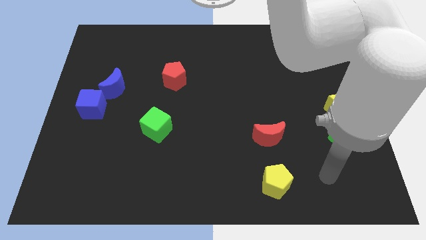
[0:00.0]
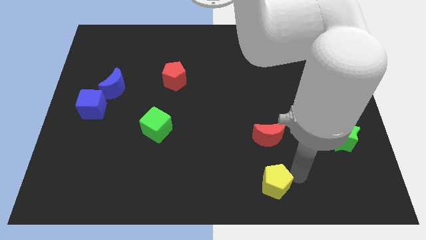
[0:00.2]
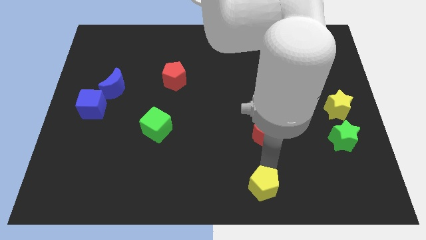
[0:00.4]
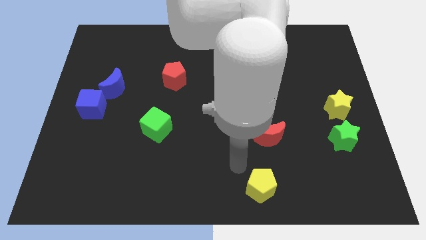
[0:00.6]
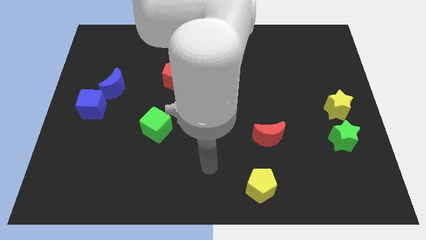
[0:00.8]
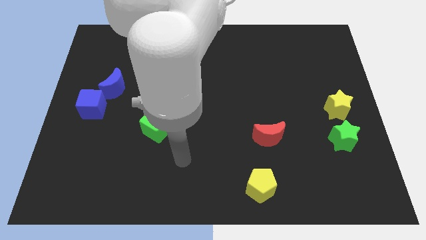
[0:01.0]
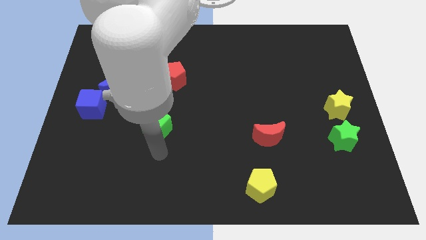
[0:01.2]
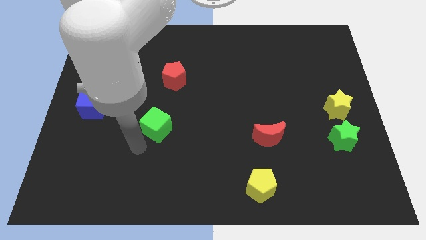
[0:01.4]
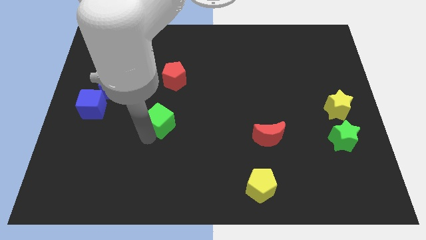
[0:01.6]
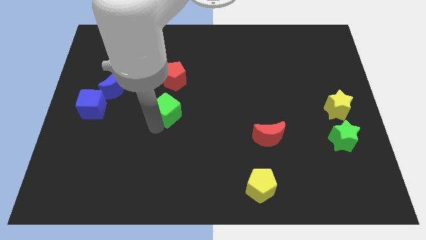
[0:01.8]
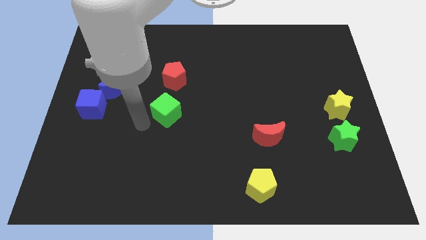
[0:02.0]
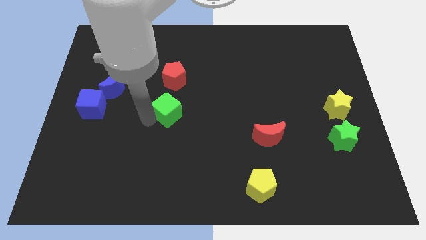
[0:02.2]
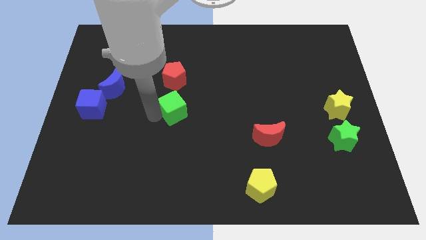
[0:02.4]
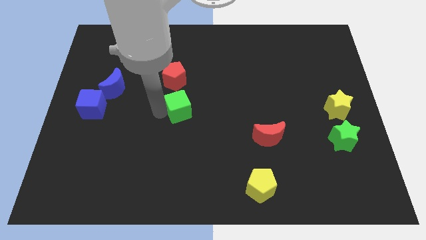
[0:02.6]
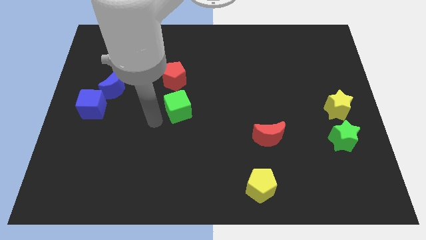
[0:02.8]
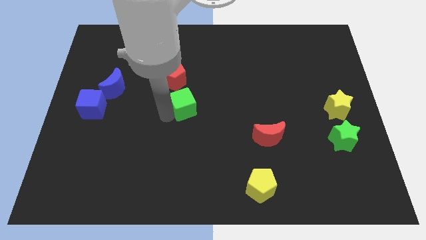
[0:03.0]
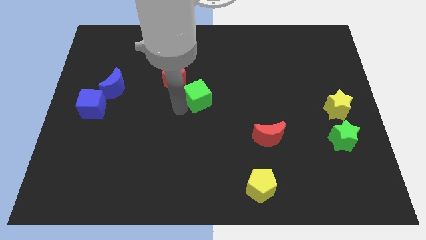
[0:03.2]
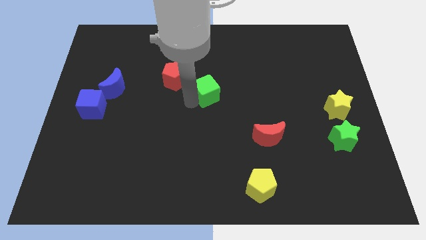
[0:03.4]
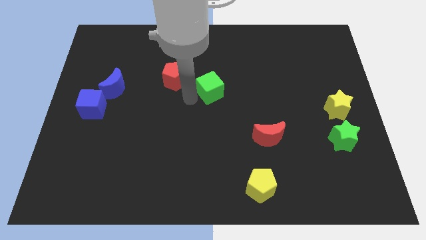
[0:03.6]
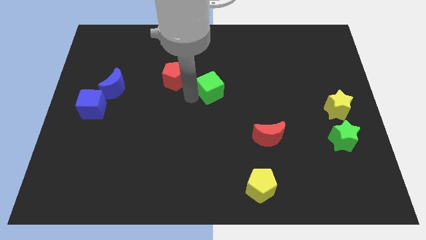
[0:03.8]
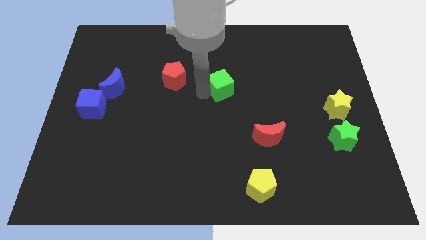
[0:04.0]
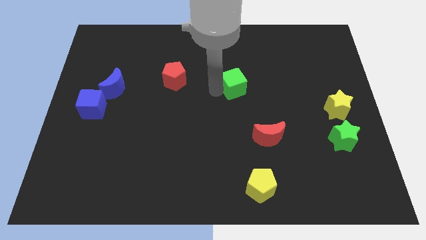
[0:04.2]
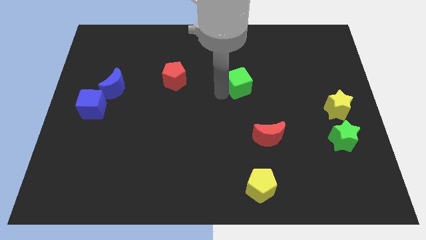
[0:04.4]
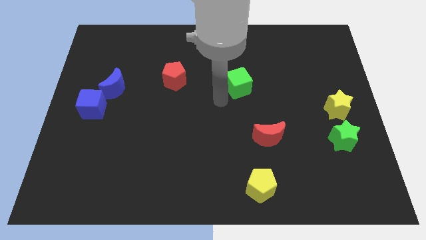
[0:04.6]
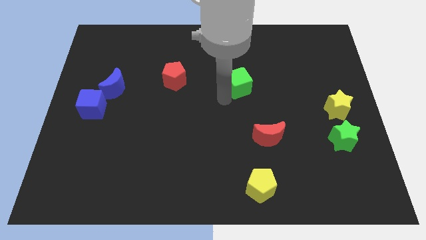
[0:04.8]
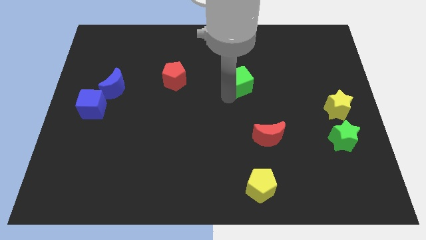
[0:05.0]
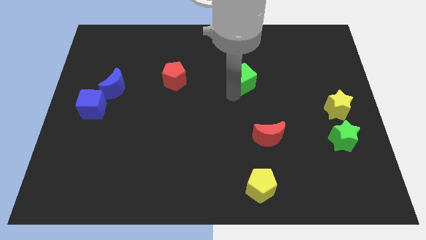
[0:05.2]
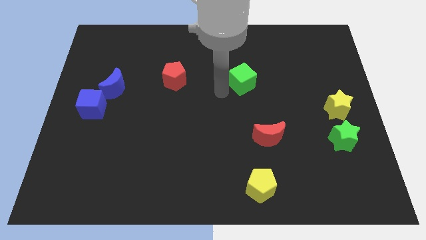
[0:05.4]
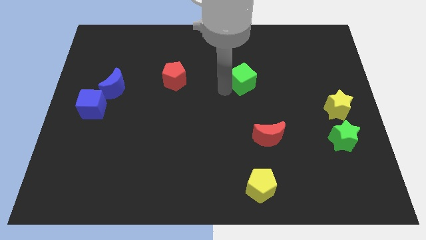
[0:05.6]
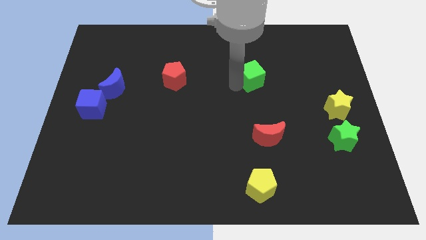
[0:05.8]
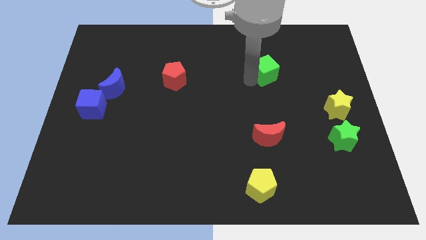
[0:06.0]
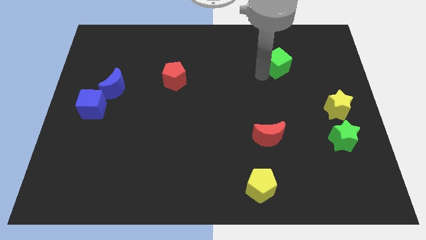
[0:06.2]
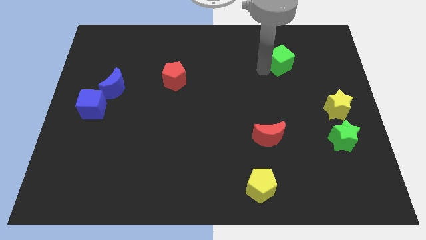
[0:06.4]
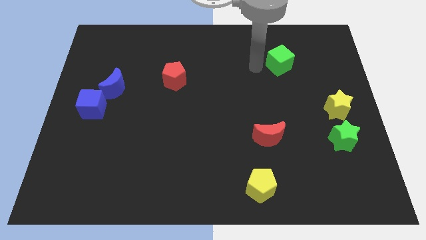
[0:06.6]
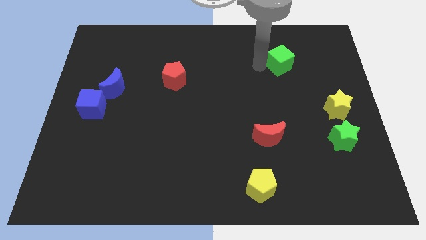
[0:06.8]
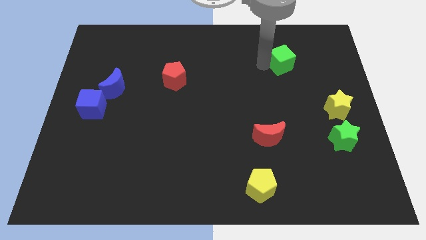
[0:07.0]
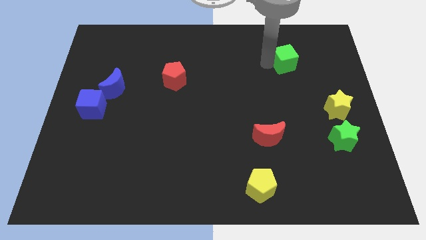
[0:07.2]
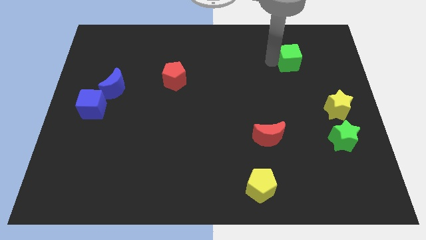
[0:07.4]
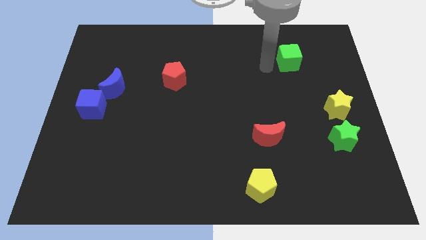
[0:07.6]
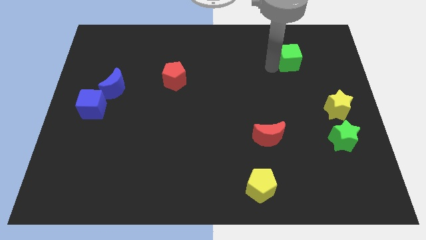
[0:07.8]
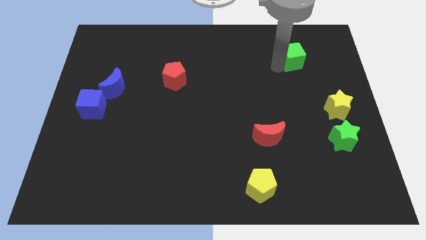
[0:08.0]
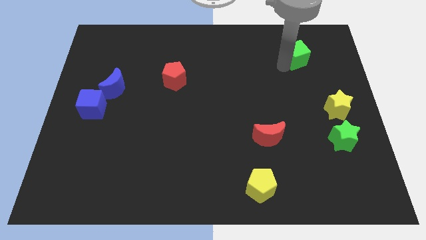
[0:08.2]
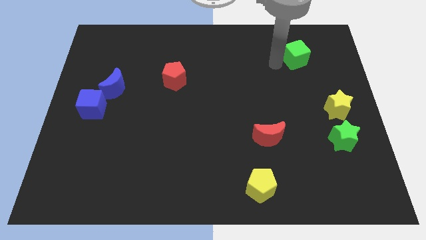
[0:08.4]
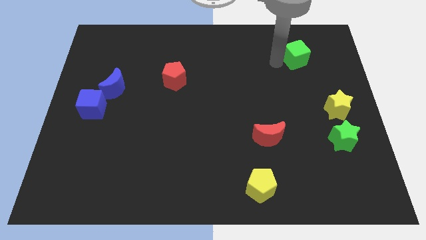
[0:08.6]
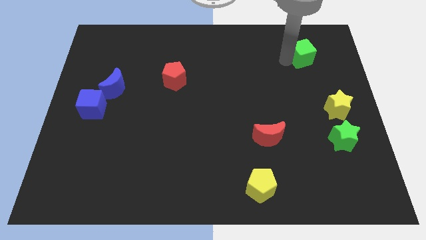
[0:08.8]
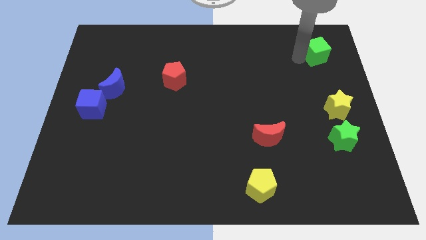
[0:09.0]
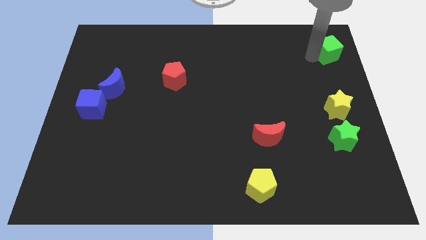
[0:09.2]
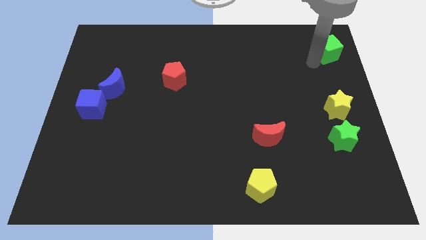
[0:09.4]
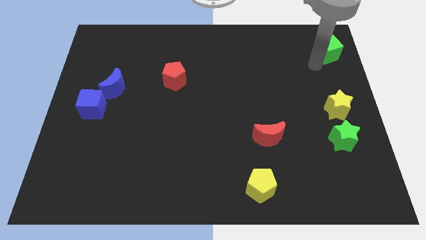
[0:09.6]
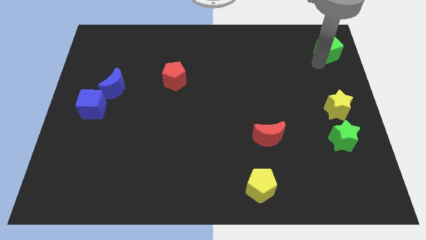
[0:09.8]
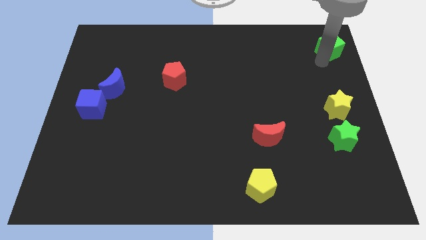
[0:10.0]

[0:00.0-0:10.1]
move the green cube to the top right of the board

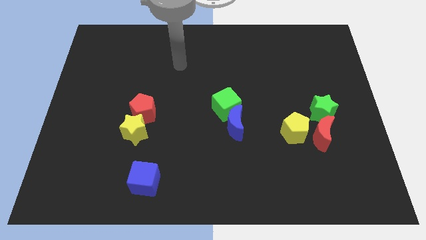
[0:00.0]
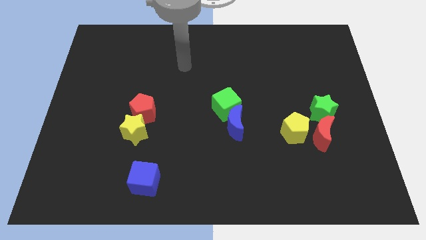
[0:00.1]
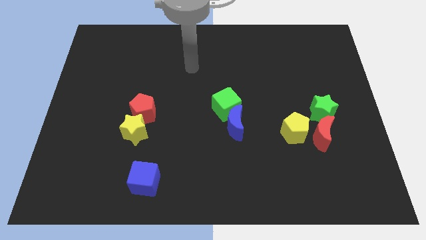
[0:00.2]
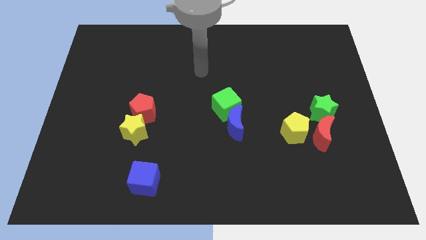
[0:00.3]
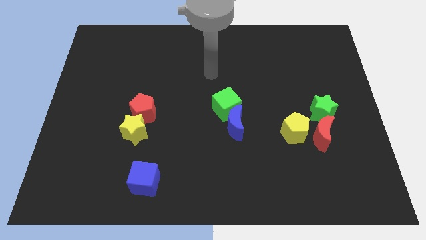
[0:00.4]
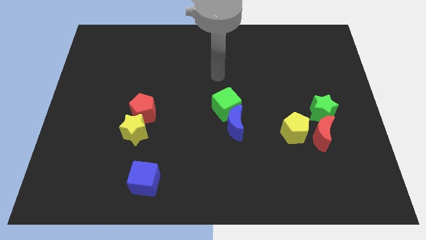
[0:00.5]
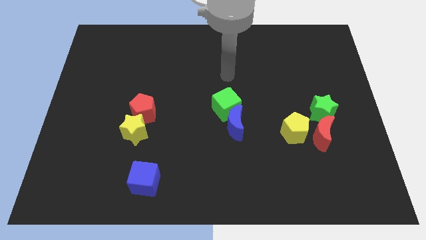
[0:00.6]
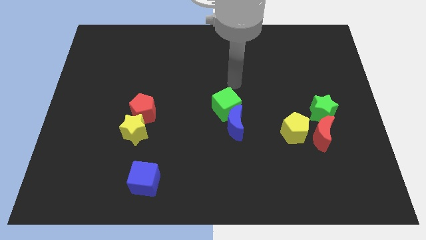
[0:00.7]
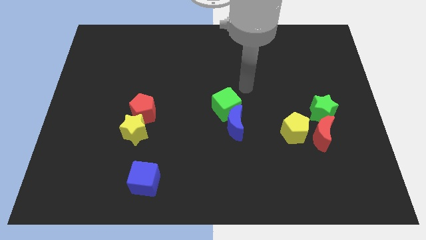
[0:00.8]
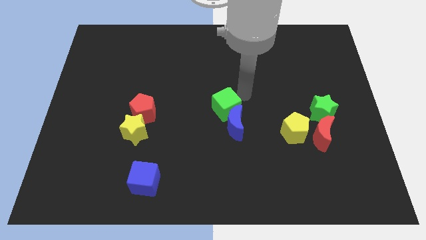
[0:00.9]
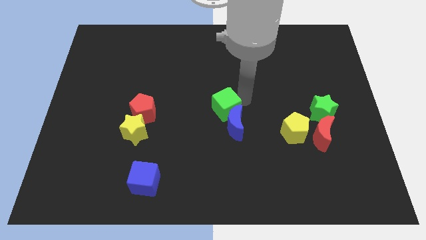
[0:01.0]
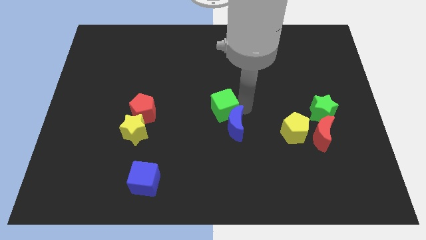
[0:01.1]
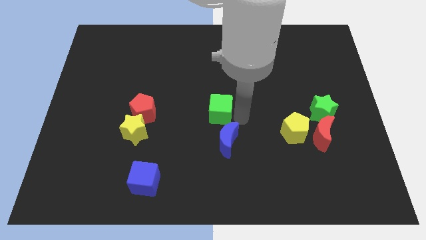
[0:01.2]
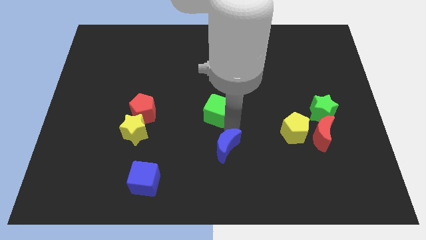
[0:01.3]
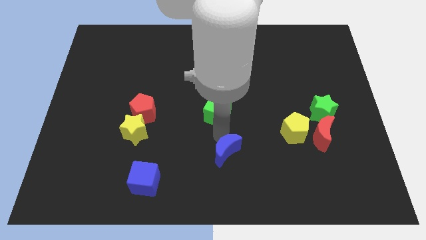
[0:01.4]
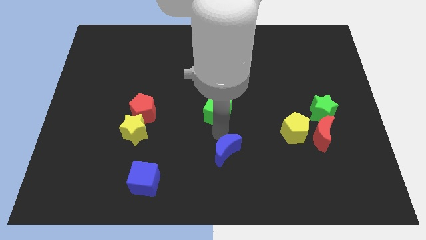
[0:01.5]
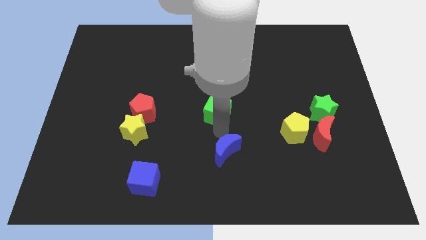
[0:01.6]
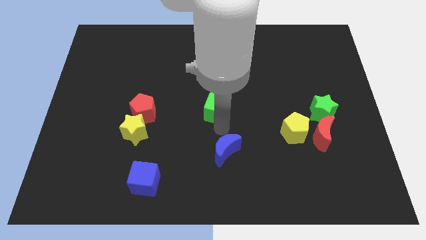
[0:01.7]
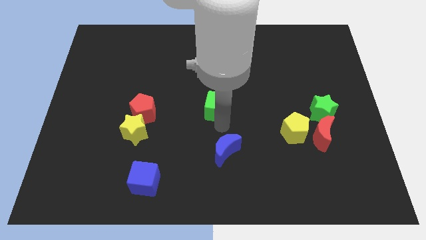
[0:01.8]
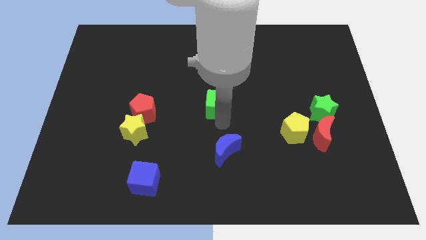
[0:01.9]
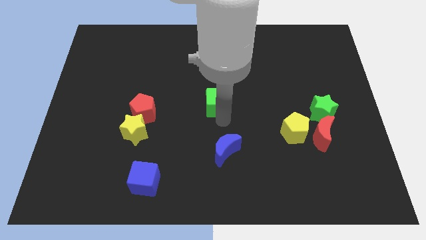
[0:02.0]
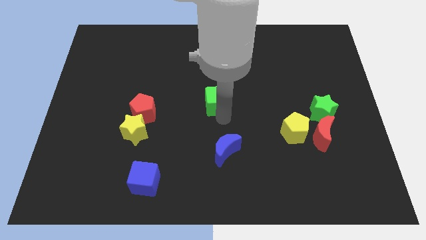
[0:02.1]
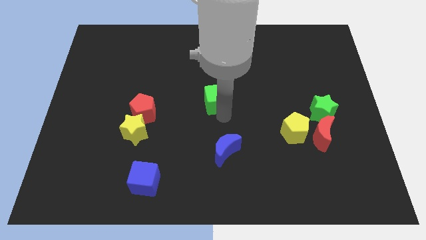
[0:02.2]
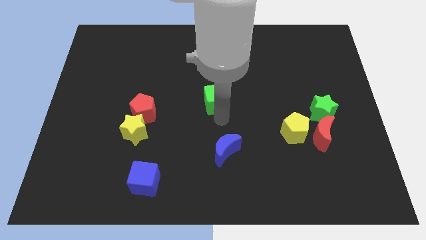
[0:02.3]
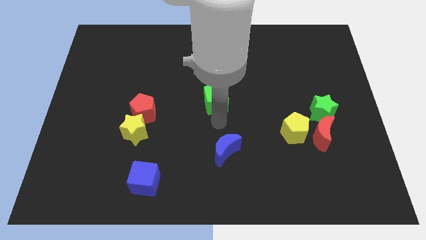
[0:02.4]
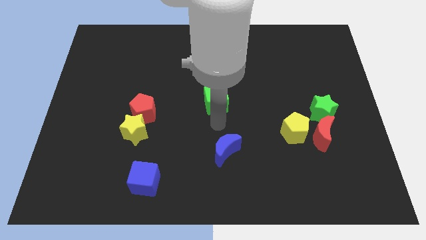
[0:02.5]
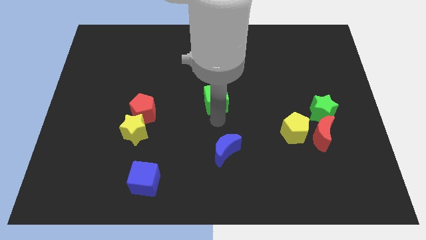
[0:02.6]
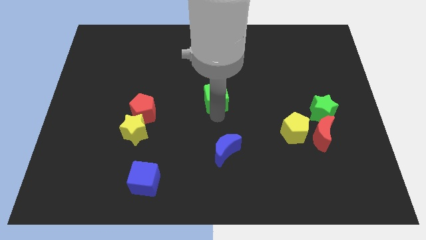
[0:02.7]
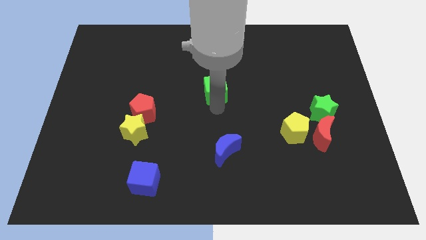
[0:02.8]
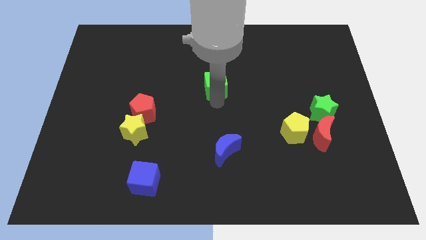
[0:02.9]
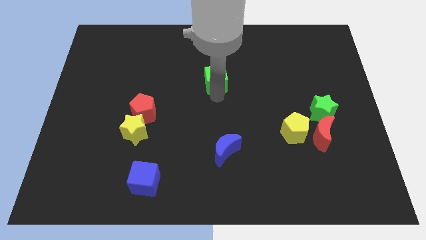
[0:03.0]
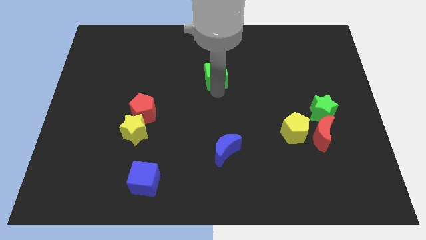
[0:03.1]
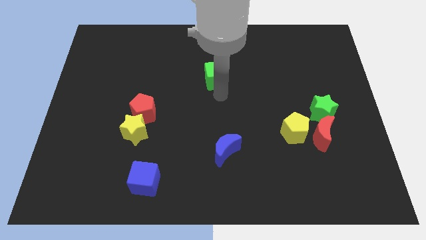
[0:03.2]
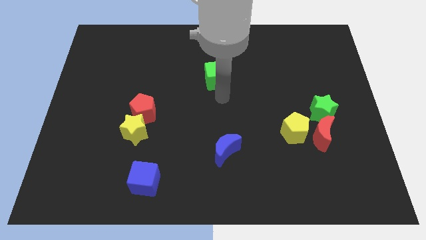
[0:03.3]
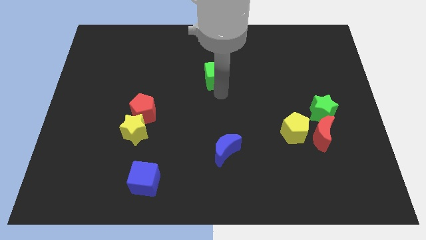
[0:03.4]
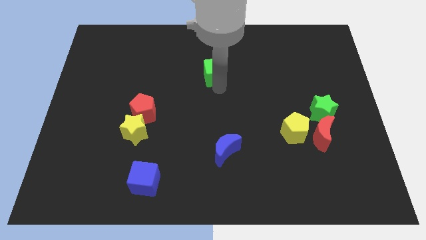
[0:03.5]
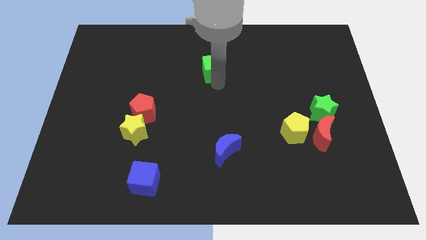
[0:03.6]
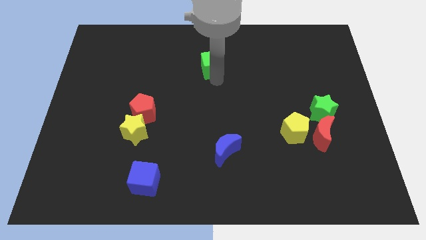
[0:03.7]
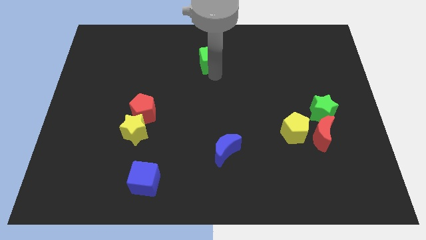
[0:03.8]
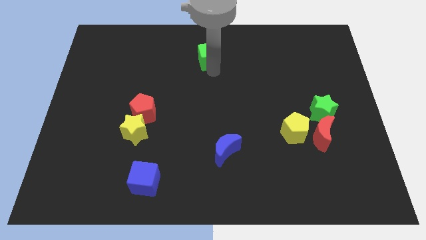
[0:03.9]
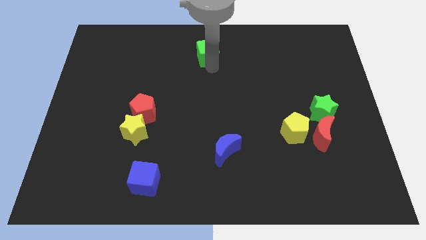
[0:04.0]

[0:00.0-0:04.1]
push the green cube to the top side
